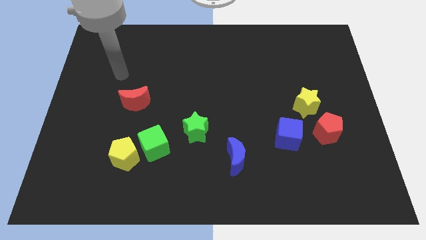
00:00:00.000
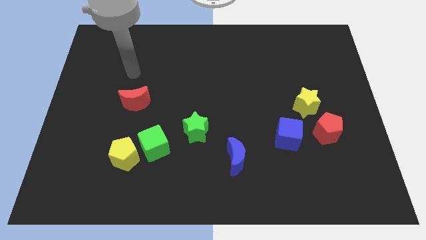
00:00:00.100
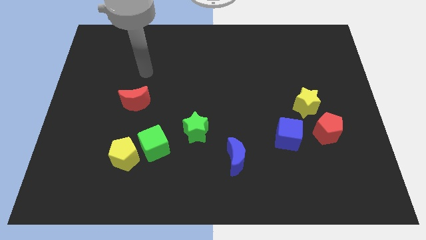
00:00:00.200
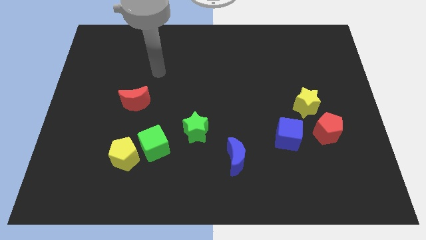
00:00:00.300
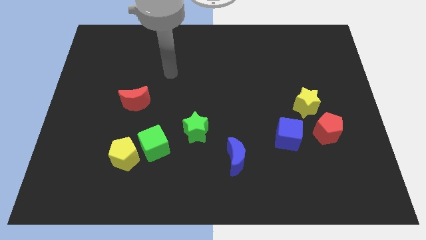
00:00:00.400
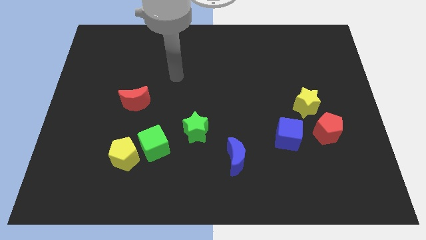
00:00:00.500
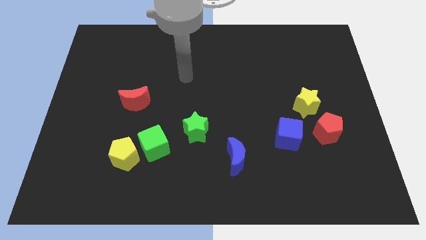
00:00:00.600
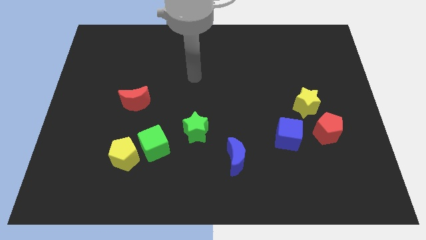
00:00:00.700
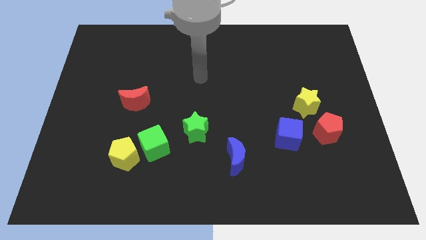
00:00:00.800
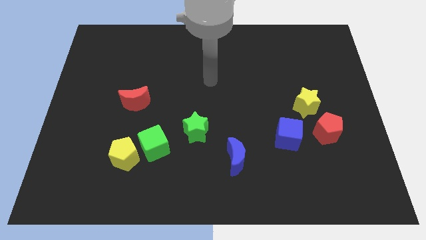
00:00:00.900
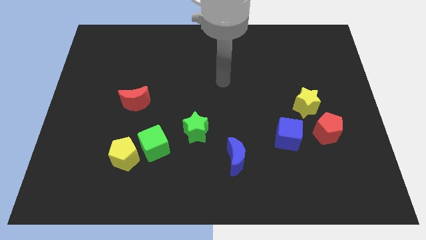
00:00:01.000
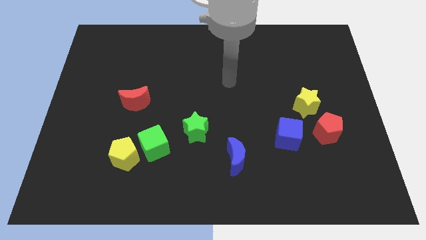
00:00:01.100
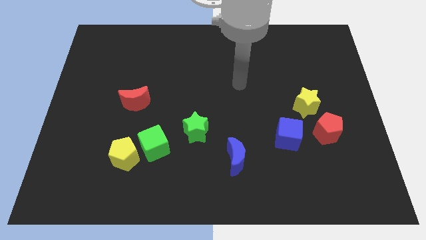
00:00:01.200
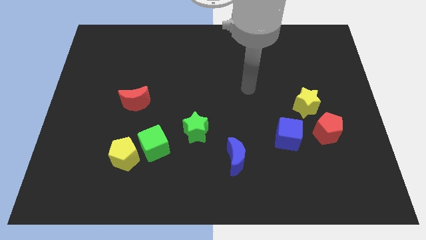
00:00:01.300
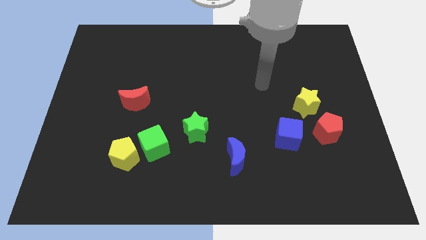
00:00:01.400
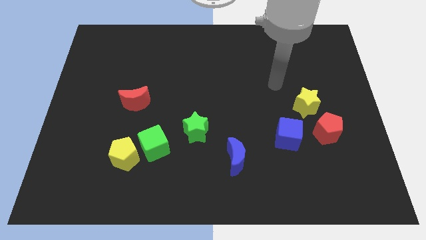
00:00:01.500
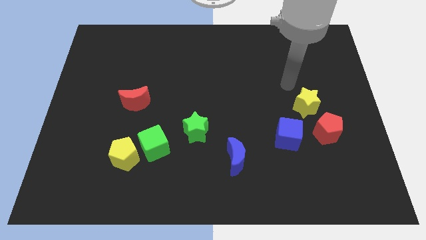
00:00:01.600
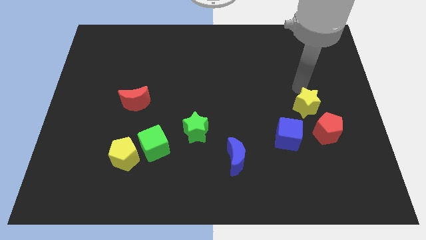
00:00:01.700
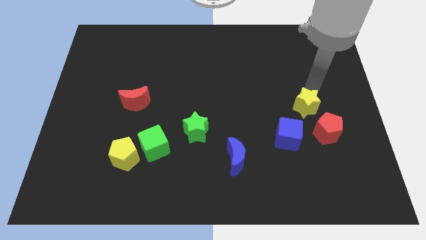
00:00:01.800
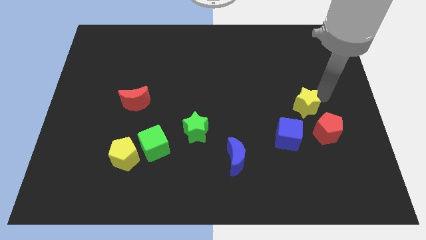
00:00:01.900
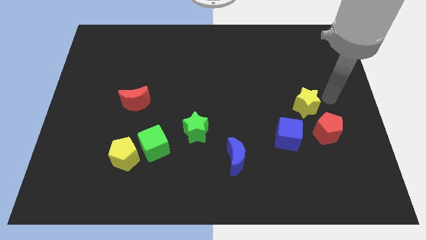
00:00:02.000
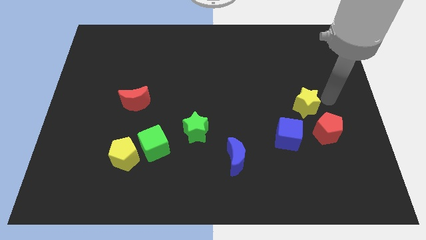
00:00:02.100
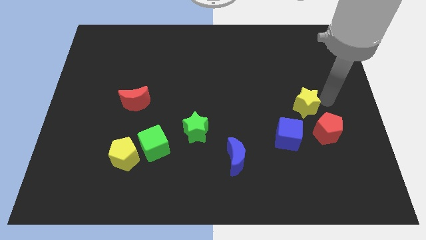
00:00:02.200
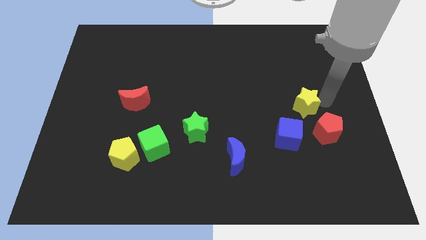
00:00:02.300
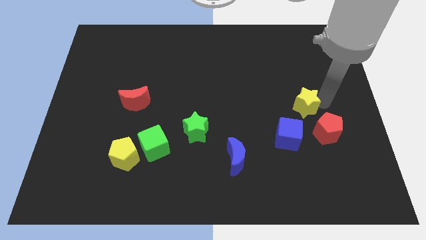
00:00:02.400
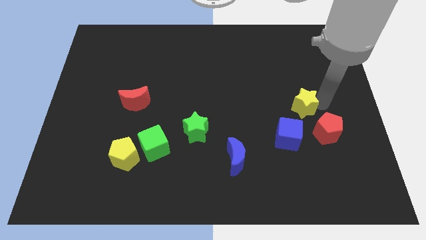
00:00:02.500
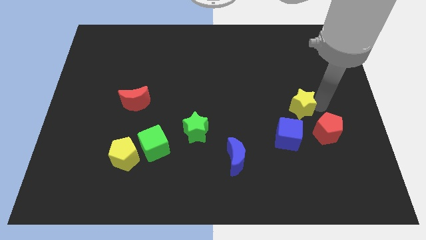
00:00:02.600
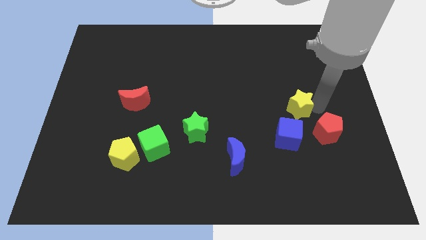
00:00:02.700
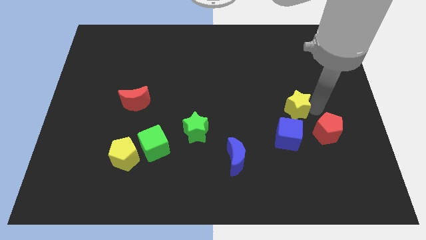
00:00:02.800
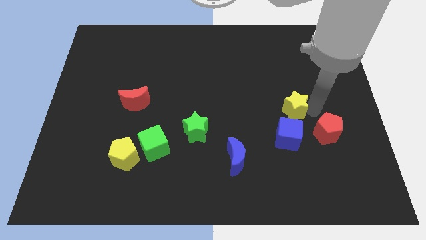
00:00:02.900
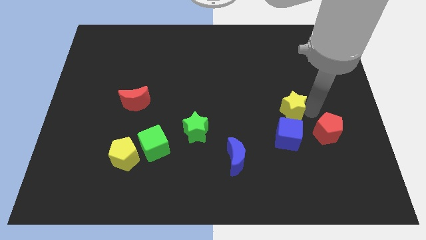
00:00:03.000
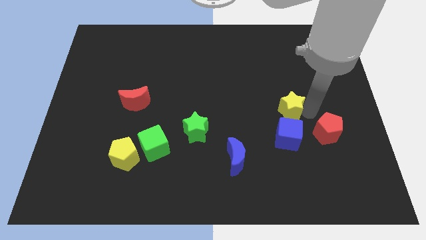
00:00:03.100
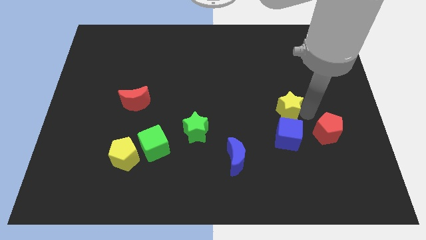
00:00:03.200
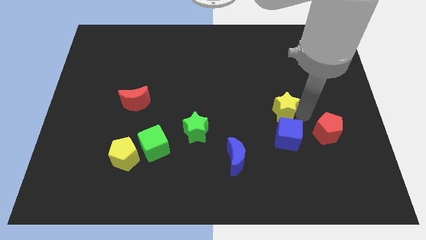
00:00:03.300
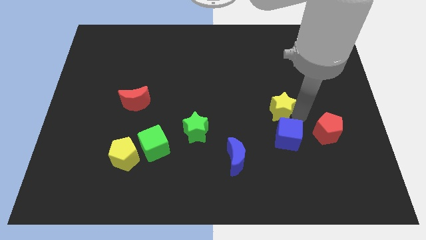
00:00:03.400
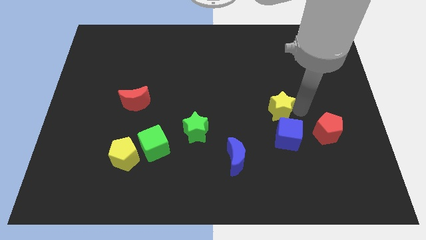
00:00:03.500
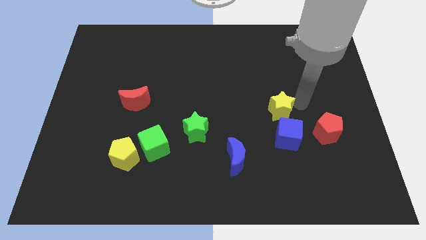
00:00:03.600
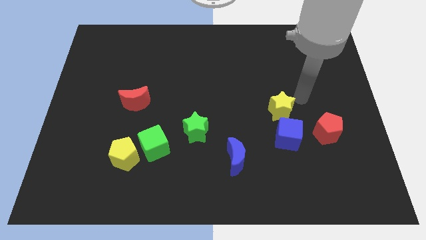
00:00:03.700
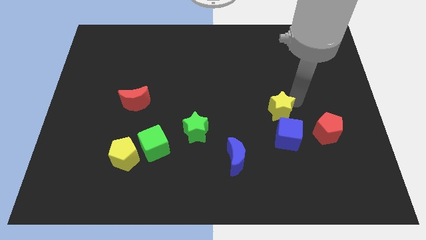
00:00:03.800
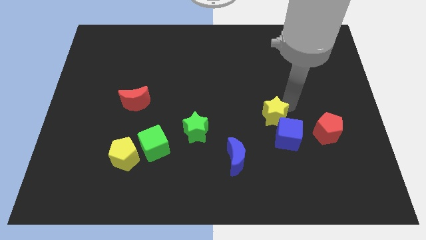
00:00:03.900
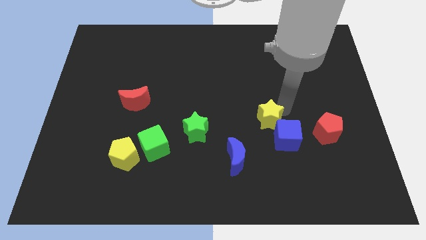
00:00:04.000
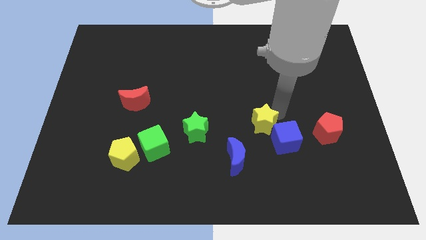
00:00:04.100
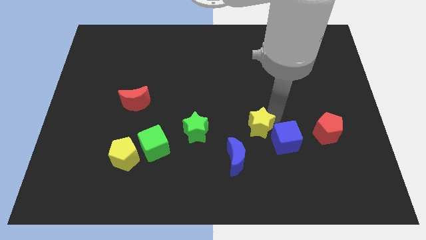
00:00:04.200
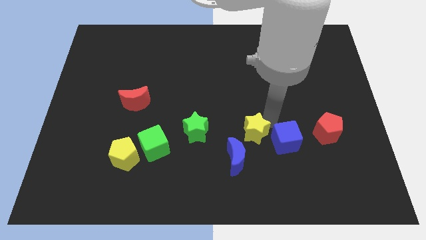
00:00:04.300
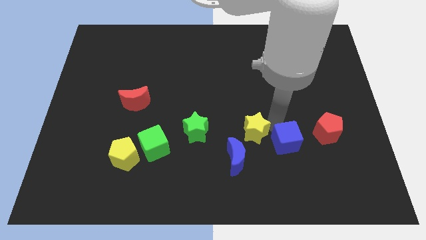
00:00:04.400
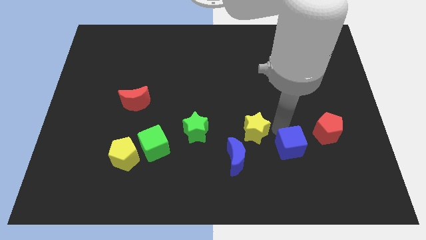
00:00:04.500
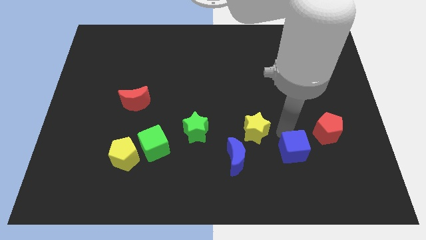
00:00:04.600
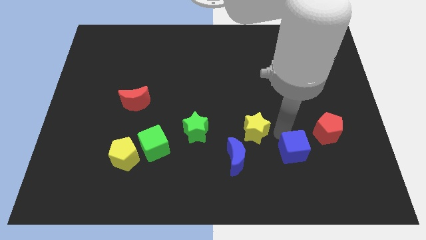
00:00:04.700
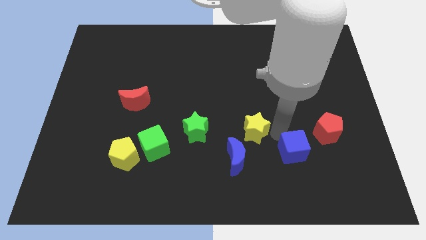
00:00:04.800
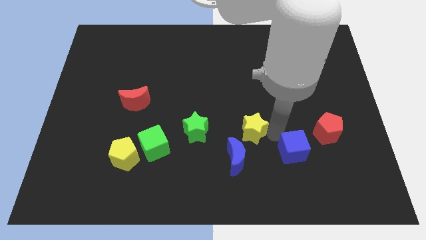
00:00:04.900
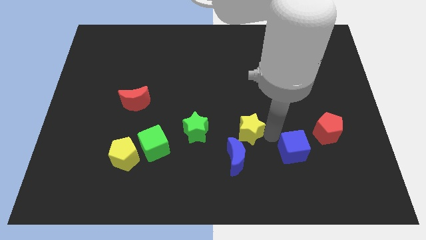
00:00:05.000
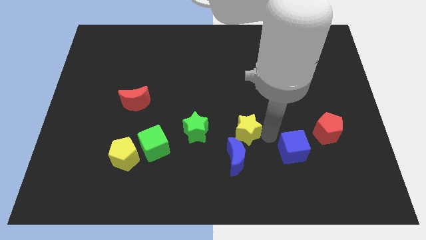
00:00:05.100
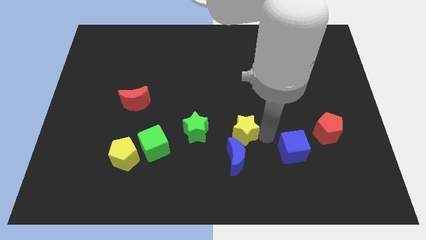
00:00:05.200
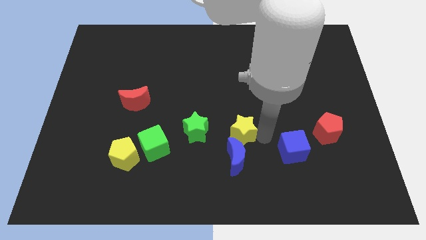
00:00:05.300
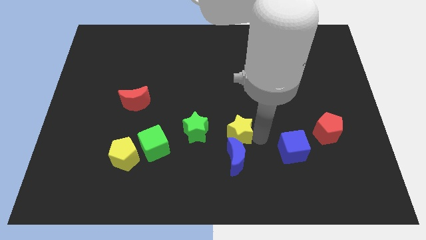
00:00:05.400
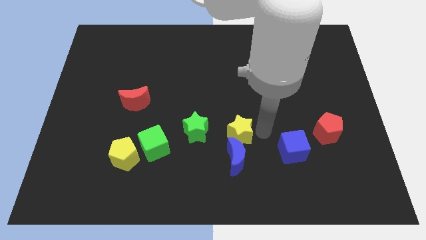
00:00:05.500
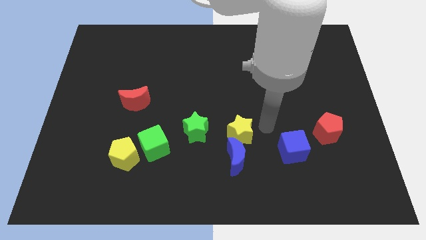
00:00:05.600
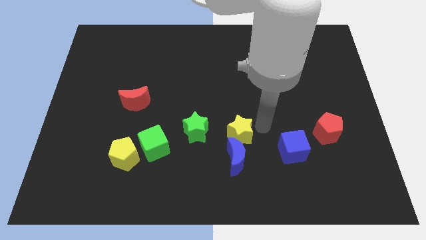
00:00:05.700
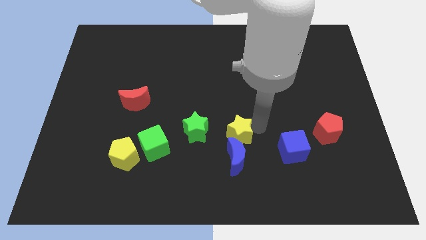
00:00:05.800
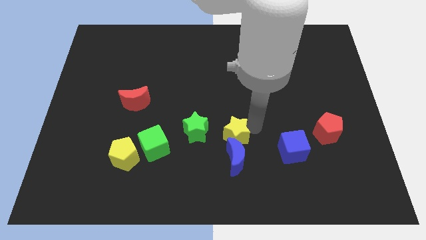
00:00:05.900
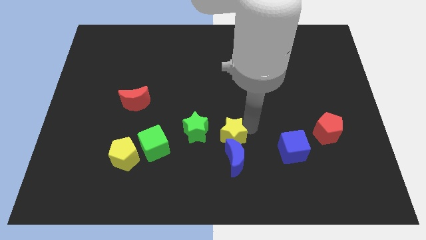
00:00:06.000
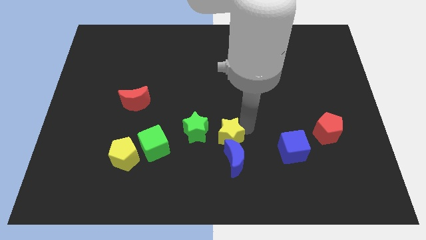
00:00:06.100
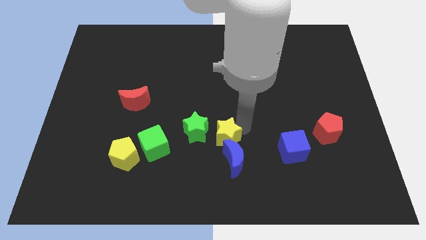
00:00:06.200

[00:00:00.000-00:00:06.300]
move the yellow star to the right side of the green cube

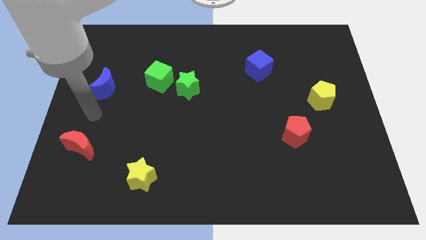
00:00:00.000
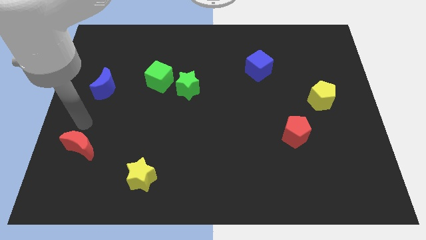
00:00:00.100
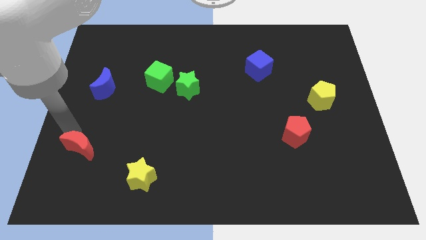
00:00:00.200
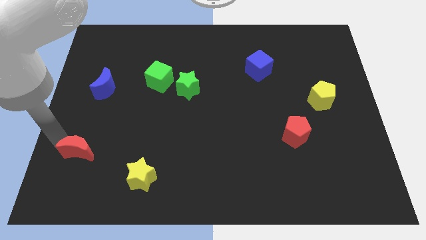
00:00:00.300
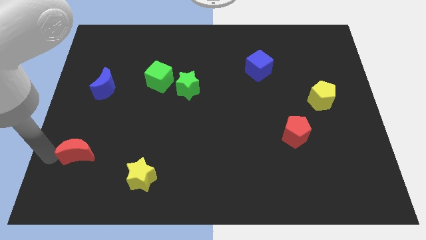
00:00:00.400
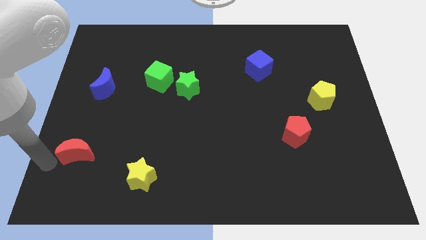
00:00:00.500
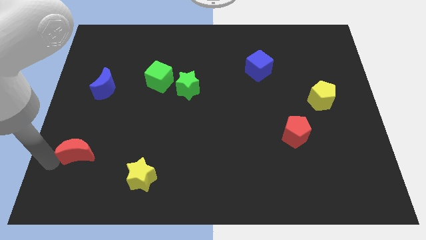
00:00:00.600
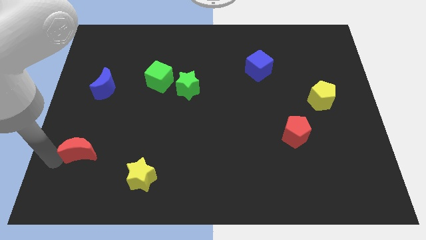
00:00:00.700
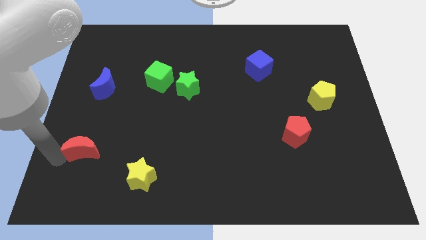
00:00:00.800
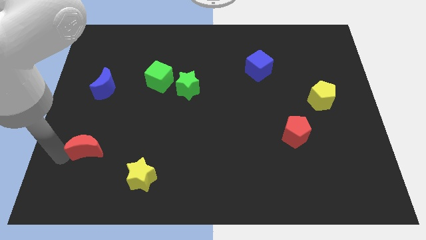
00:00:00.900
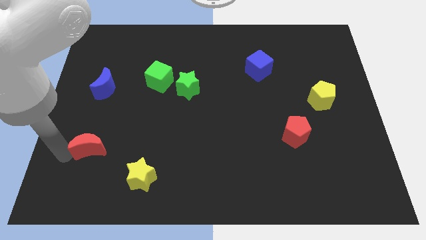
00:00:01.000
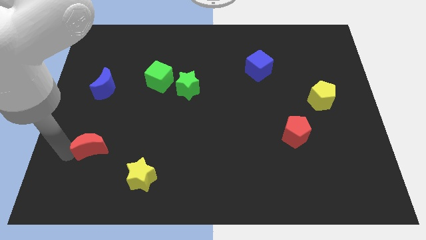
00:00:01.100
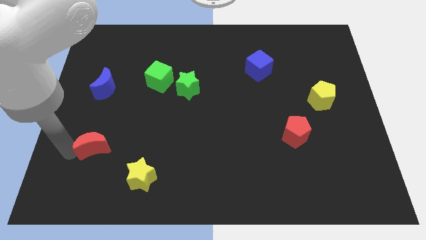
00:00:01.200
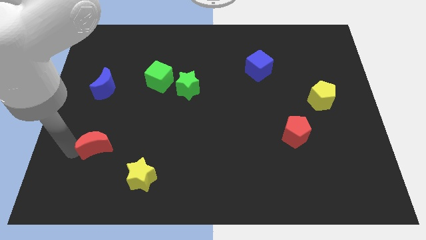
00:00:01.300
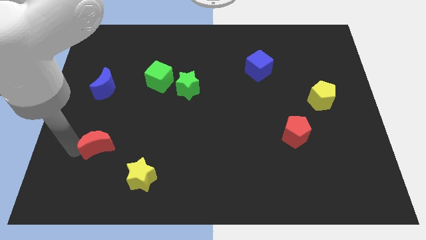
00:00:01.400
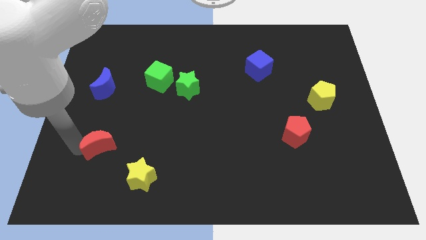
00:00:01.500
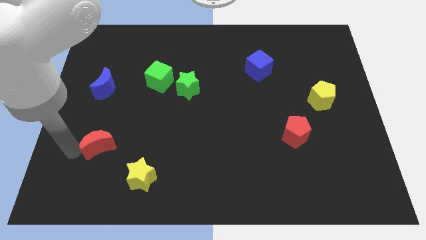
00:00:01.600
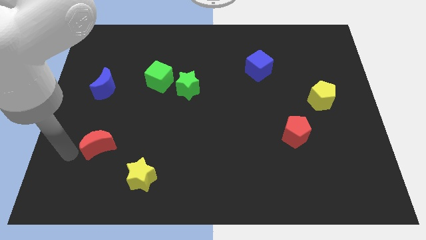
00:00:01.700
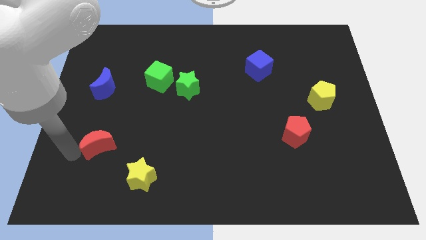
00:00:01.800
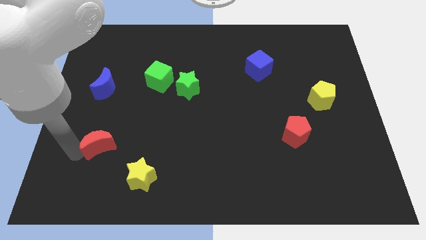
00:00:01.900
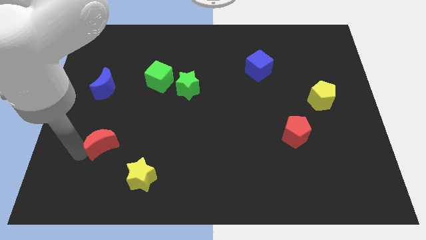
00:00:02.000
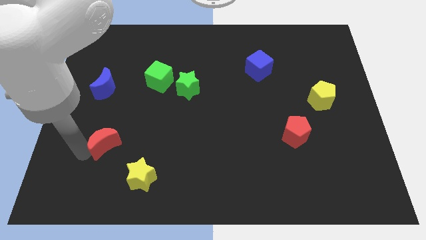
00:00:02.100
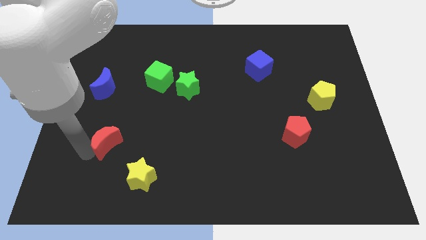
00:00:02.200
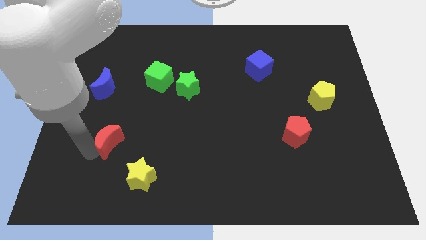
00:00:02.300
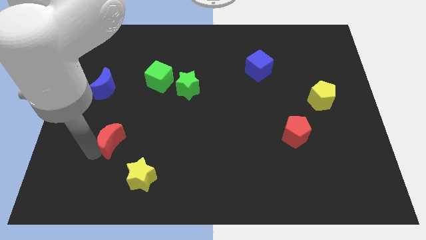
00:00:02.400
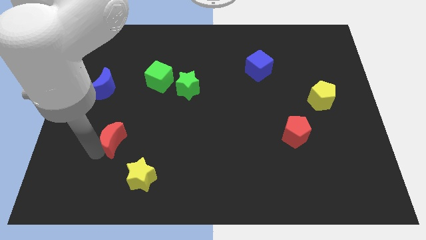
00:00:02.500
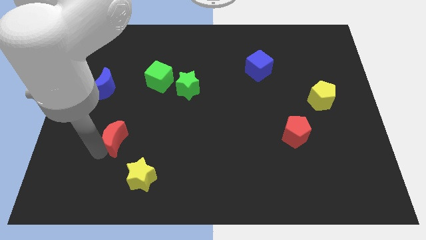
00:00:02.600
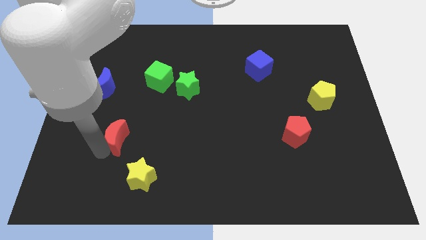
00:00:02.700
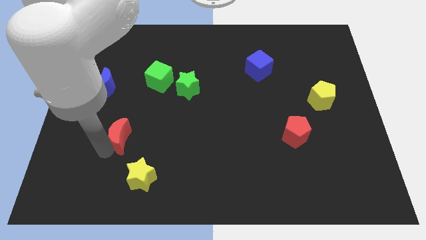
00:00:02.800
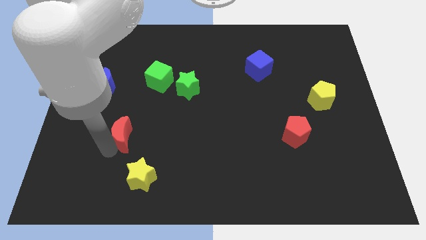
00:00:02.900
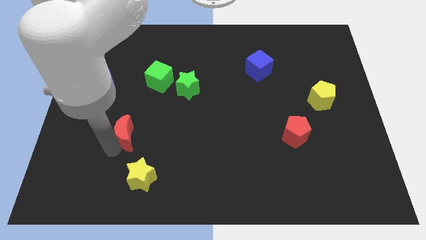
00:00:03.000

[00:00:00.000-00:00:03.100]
push the red moon above the yellow star
